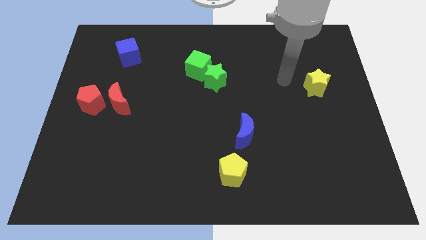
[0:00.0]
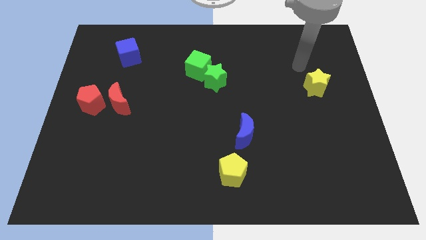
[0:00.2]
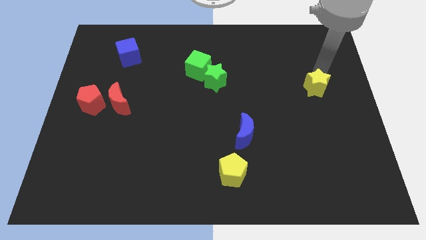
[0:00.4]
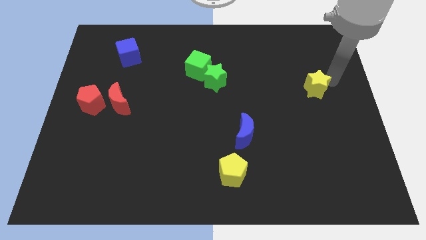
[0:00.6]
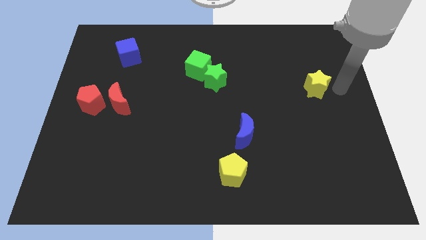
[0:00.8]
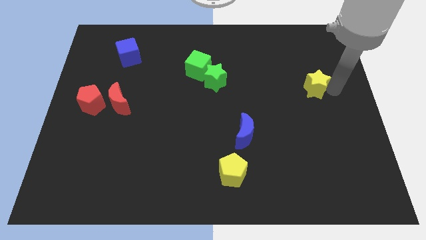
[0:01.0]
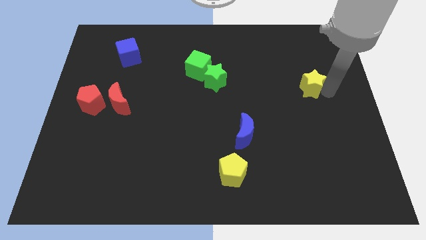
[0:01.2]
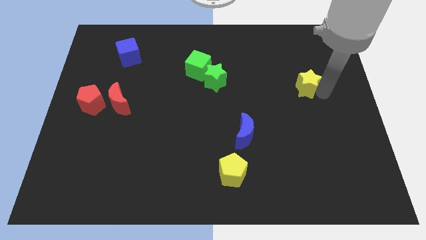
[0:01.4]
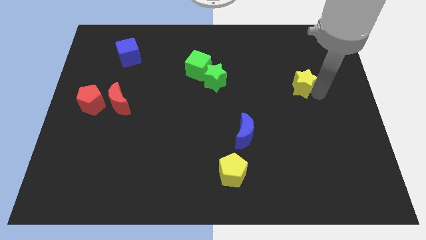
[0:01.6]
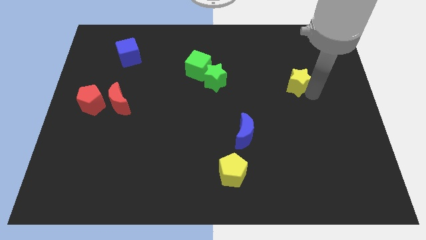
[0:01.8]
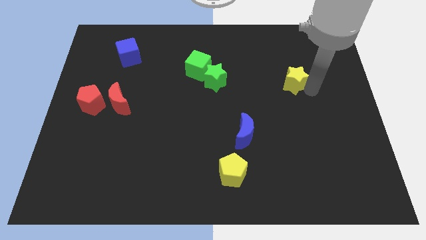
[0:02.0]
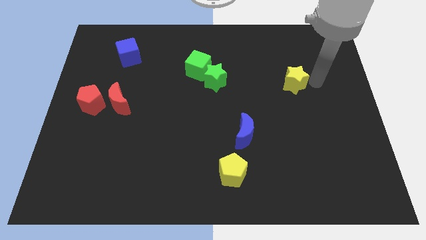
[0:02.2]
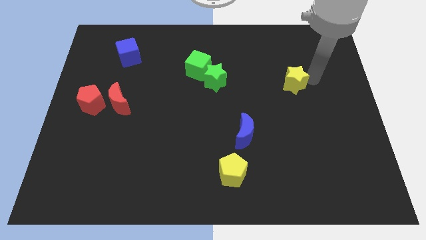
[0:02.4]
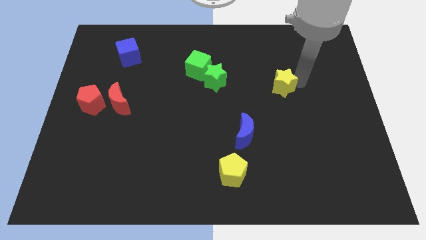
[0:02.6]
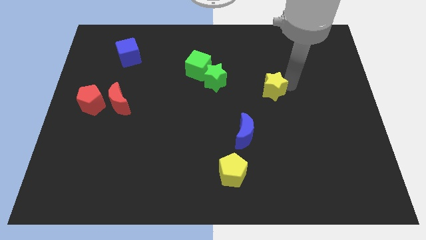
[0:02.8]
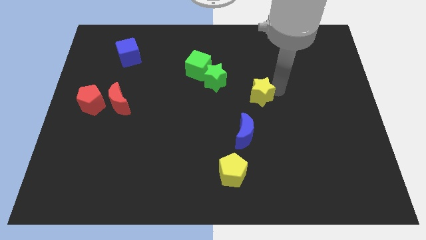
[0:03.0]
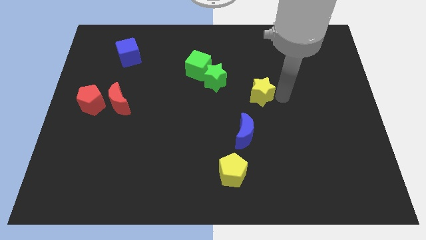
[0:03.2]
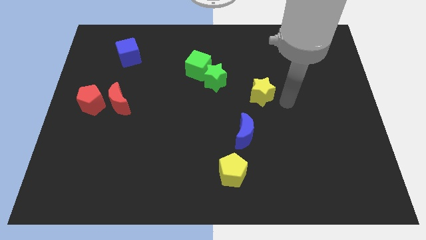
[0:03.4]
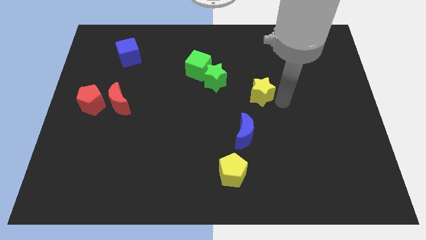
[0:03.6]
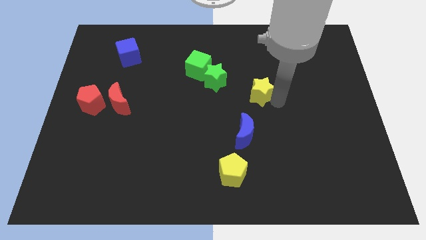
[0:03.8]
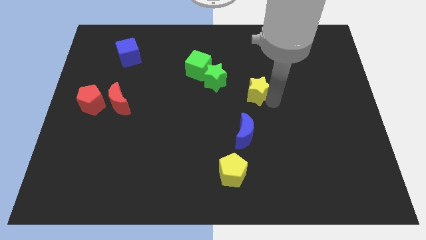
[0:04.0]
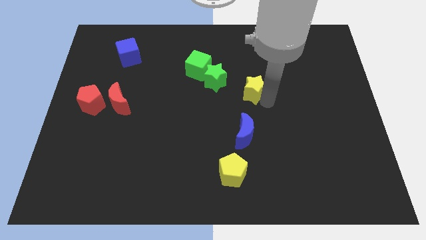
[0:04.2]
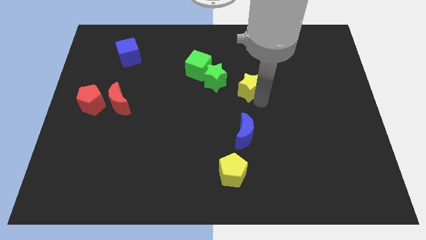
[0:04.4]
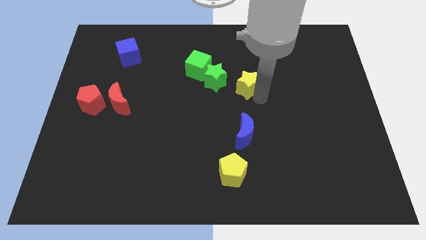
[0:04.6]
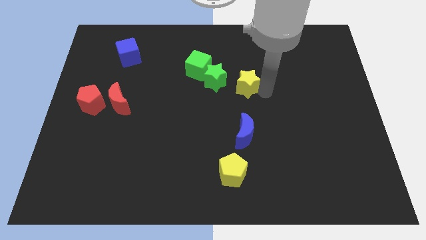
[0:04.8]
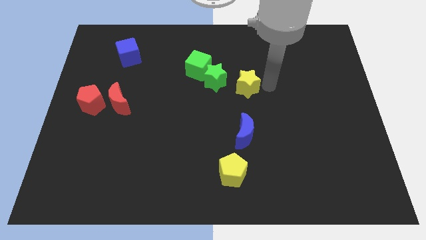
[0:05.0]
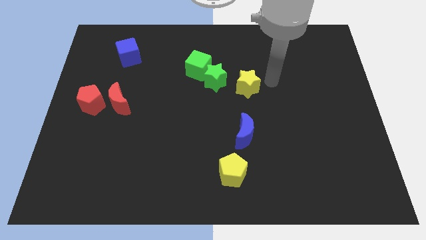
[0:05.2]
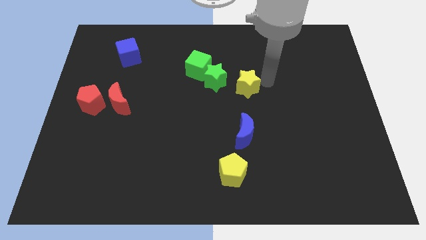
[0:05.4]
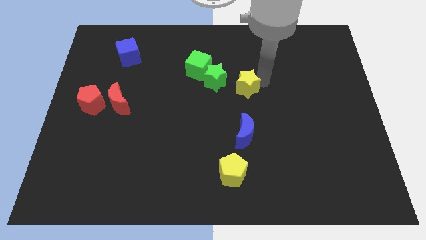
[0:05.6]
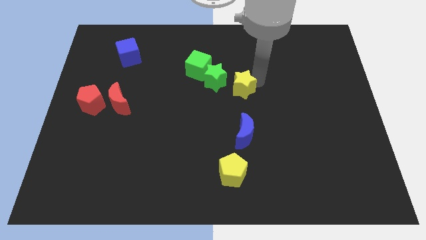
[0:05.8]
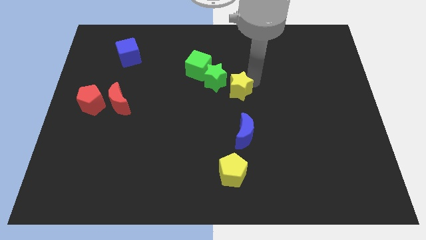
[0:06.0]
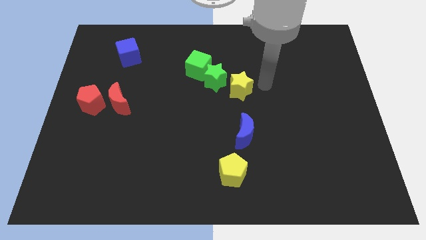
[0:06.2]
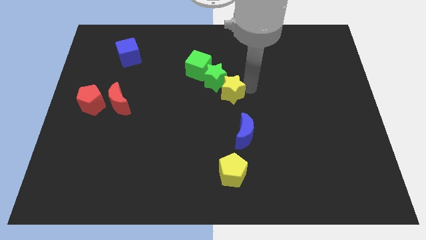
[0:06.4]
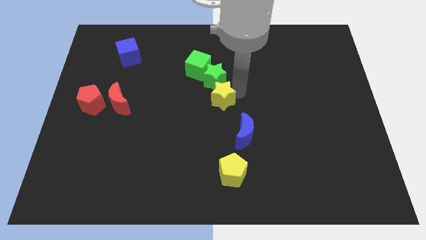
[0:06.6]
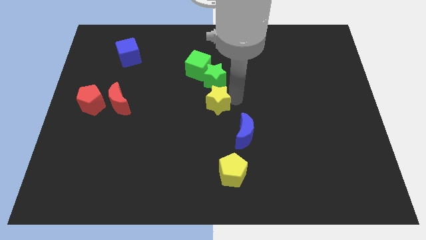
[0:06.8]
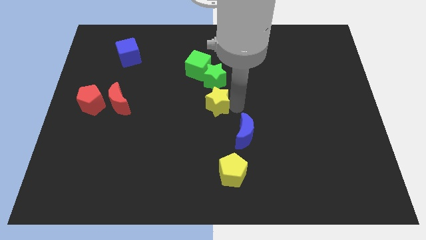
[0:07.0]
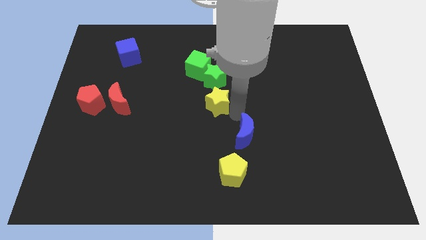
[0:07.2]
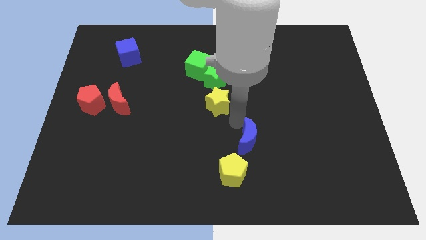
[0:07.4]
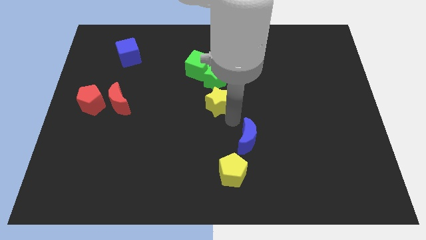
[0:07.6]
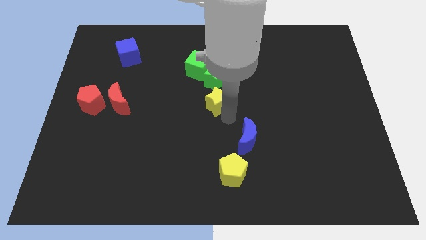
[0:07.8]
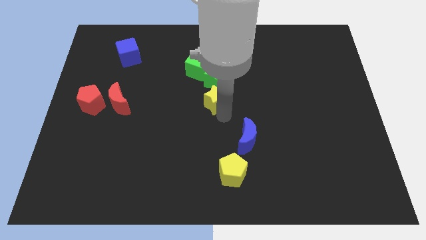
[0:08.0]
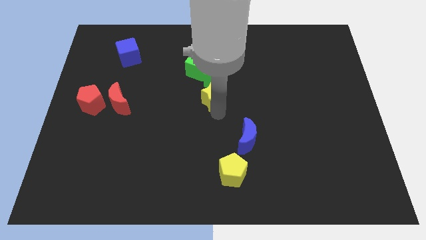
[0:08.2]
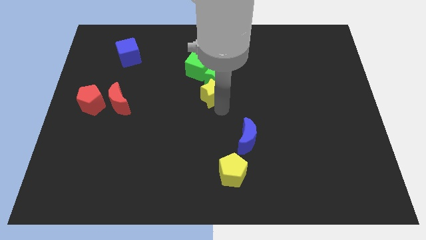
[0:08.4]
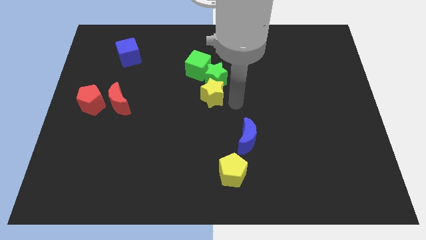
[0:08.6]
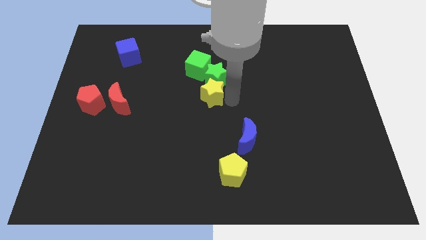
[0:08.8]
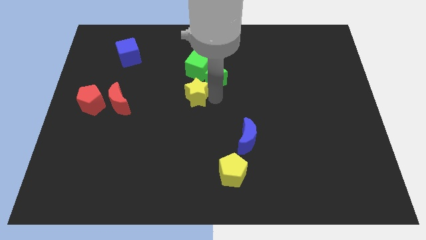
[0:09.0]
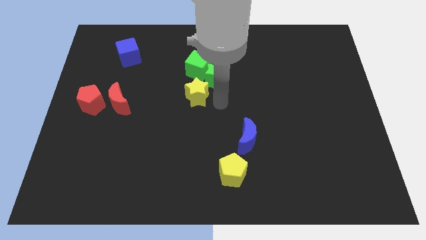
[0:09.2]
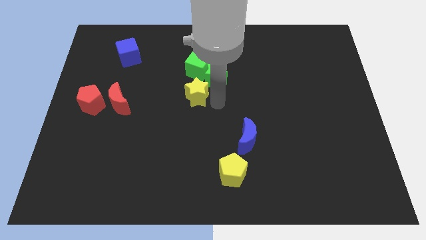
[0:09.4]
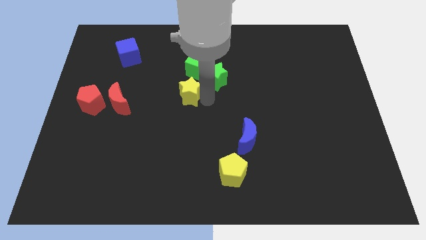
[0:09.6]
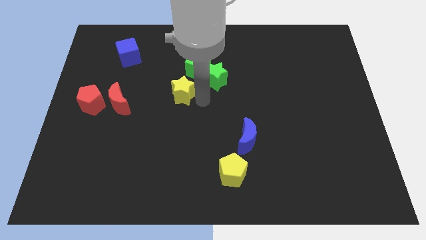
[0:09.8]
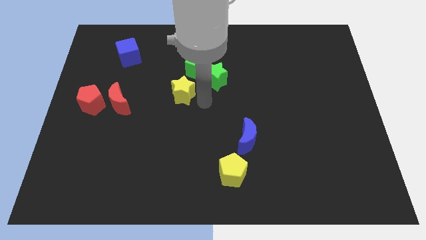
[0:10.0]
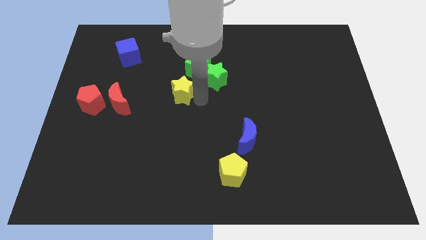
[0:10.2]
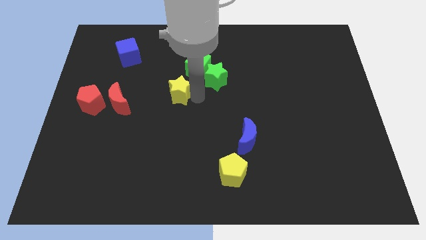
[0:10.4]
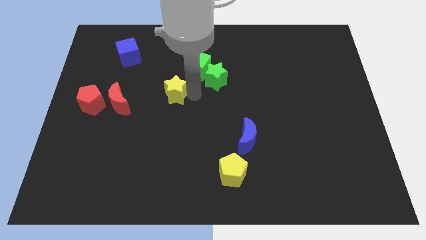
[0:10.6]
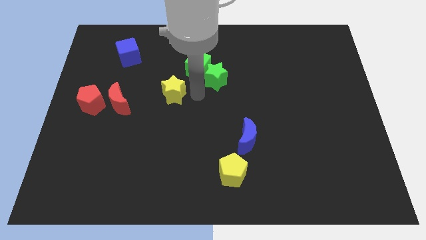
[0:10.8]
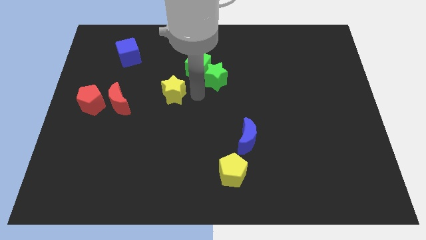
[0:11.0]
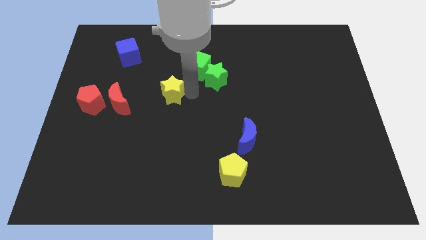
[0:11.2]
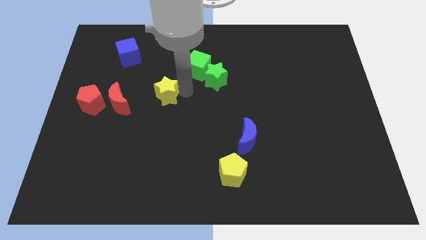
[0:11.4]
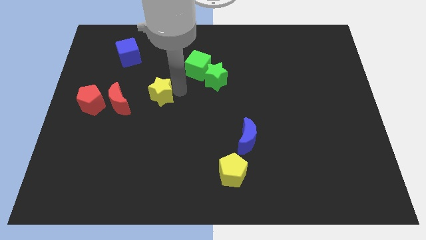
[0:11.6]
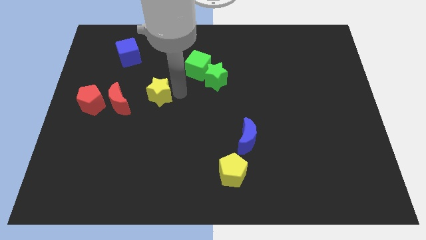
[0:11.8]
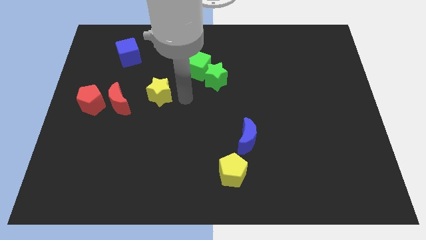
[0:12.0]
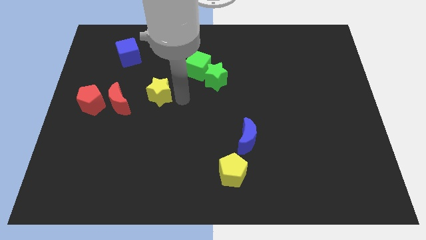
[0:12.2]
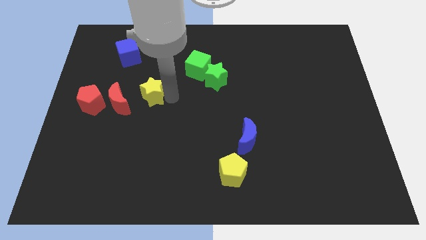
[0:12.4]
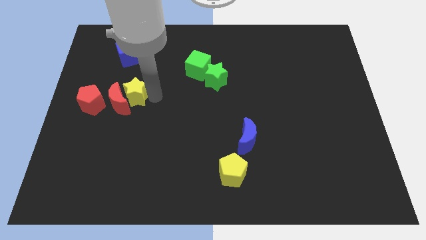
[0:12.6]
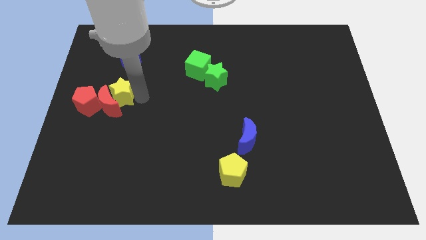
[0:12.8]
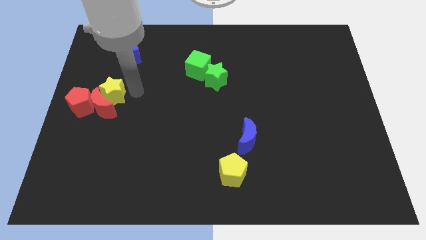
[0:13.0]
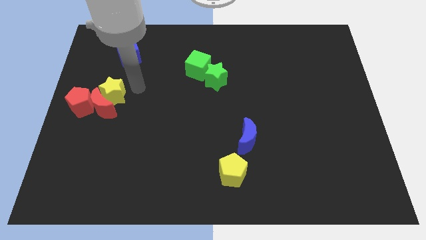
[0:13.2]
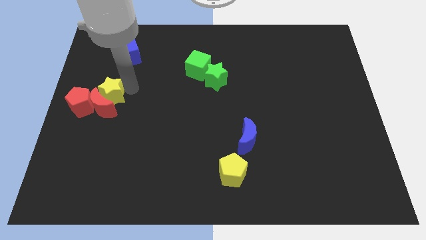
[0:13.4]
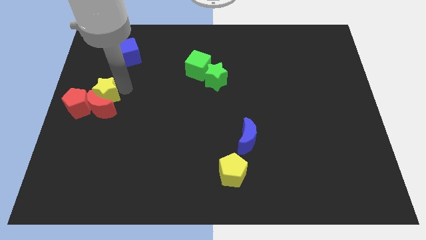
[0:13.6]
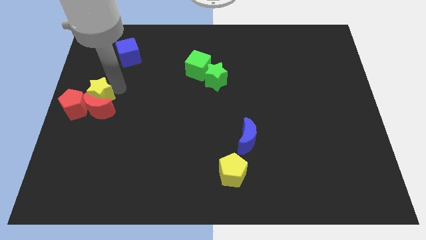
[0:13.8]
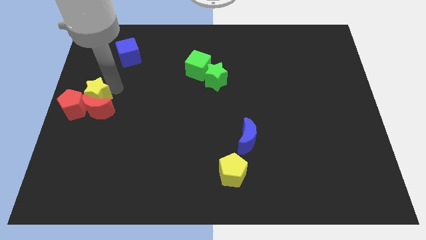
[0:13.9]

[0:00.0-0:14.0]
push the yellow star next to the red pentagon

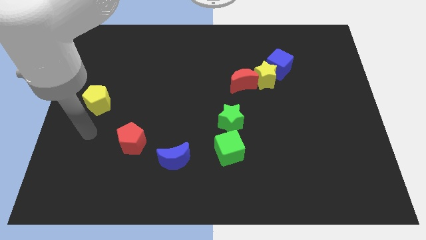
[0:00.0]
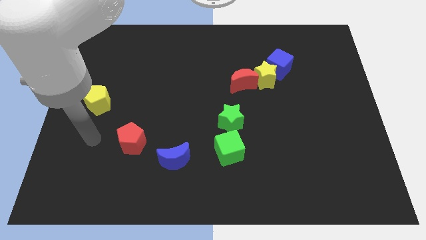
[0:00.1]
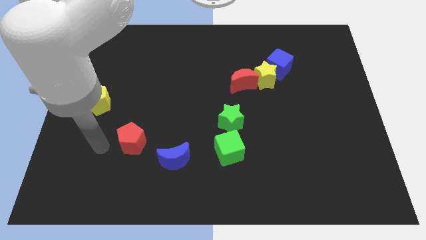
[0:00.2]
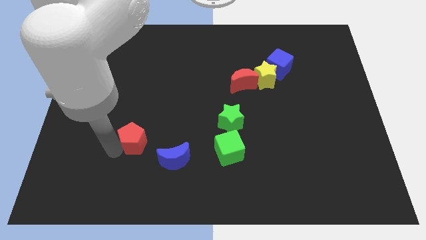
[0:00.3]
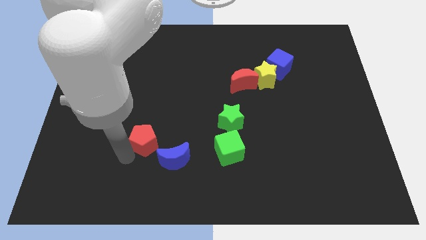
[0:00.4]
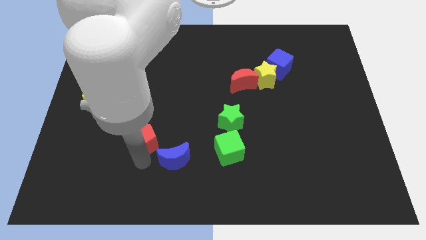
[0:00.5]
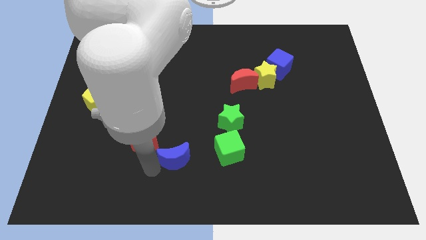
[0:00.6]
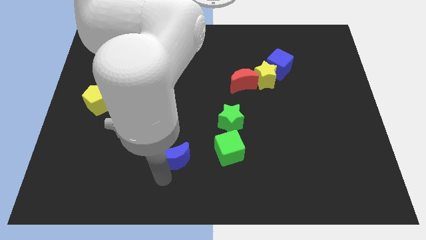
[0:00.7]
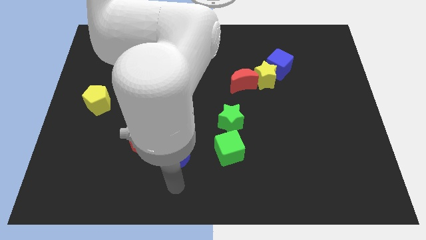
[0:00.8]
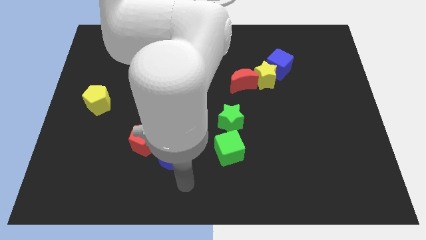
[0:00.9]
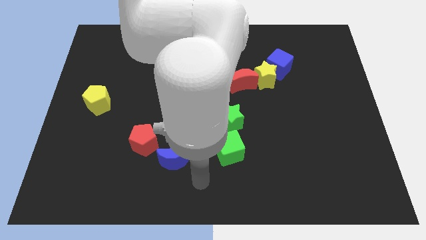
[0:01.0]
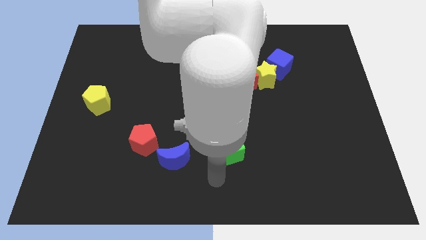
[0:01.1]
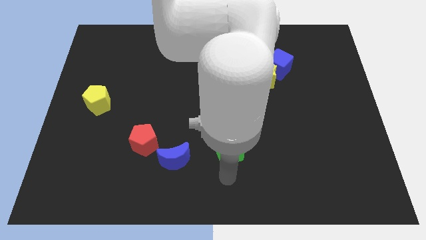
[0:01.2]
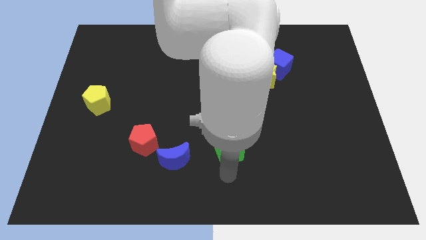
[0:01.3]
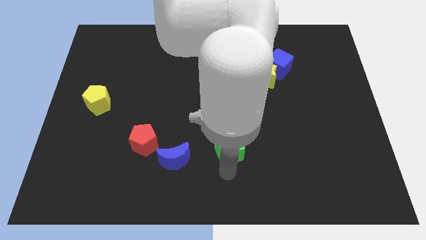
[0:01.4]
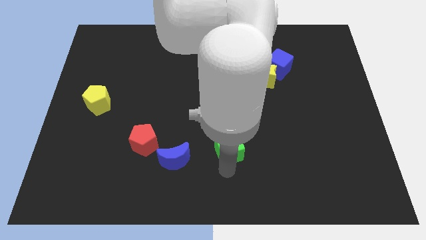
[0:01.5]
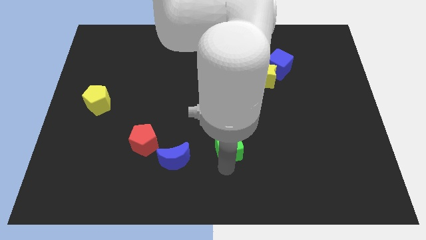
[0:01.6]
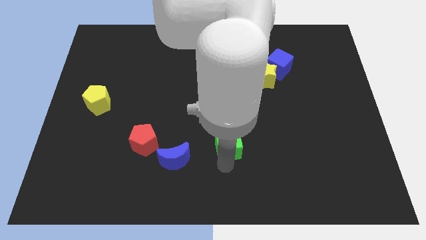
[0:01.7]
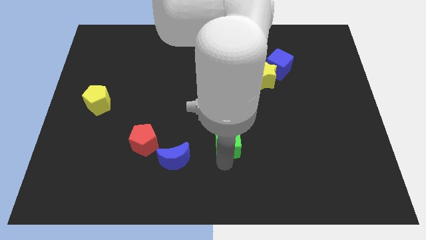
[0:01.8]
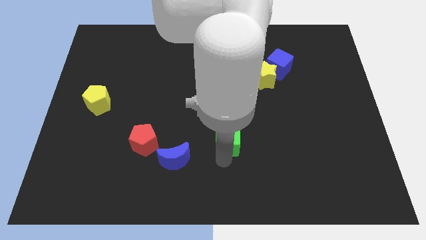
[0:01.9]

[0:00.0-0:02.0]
move the green cube to the green star
